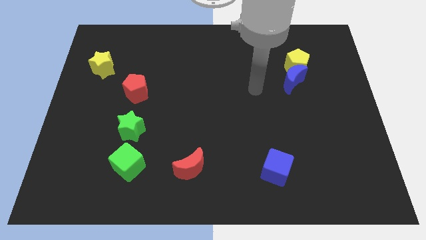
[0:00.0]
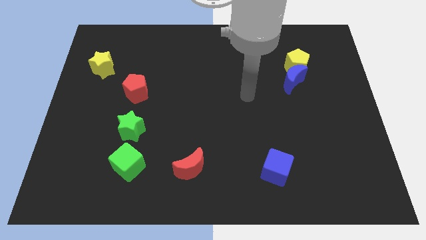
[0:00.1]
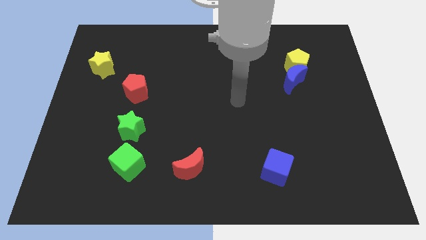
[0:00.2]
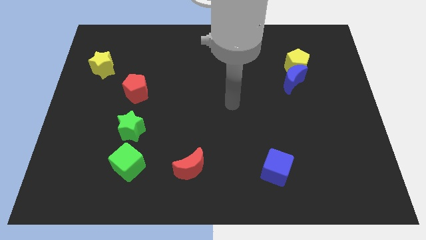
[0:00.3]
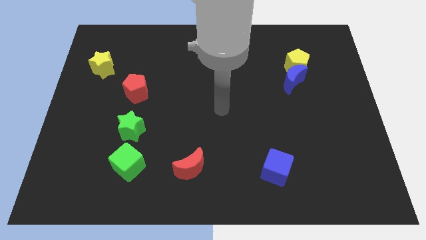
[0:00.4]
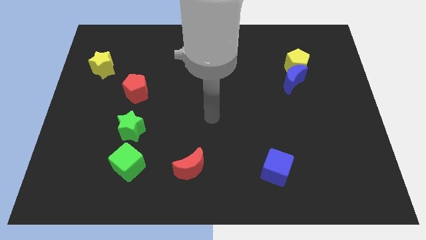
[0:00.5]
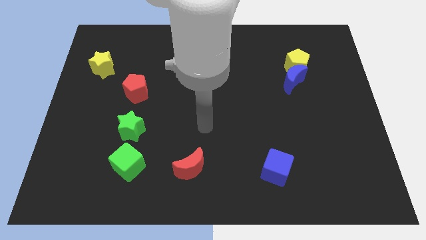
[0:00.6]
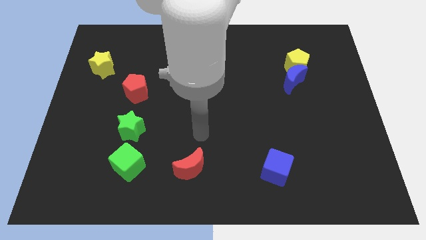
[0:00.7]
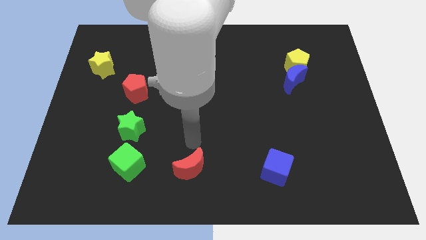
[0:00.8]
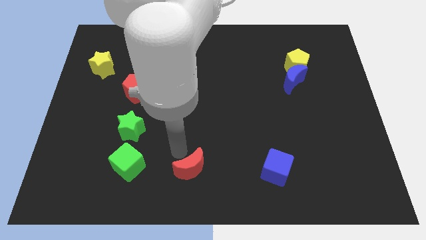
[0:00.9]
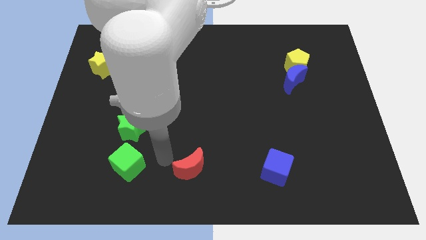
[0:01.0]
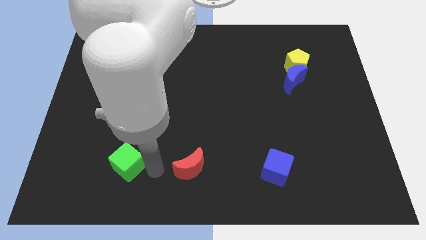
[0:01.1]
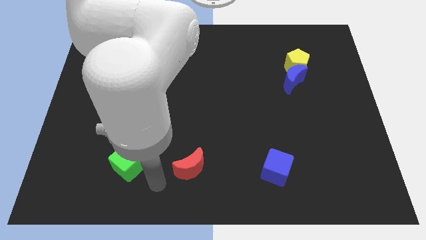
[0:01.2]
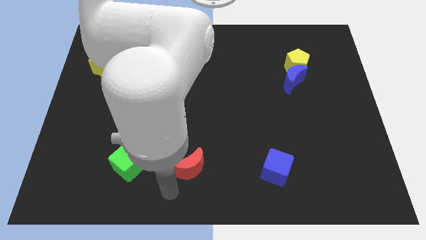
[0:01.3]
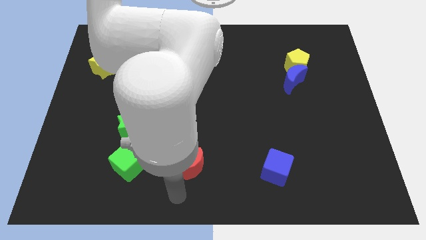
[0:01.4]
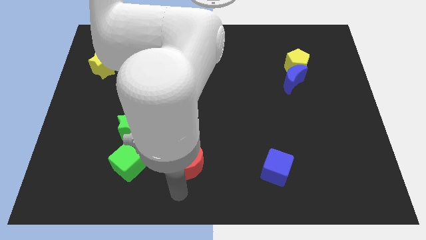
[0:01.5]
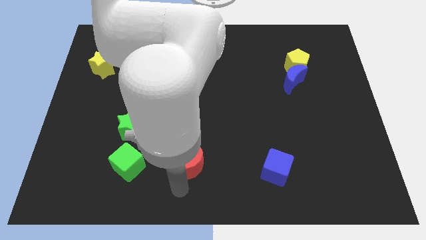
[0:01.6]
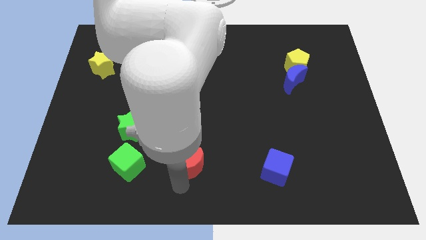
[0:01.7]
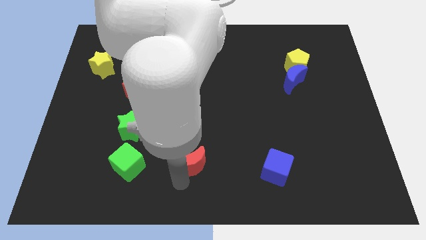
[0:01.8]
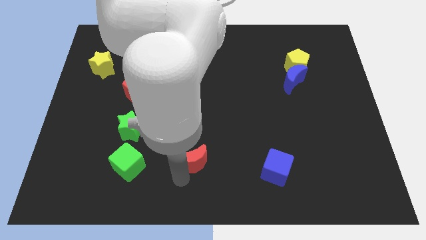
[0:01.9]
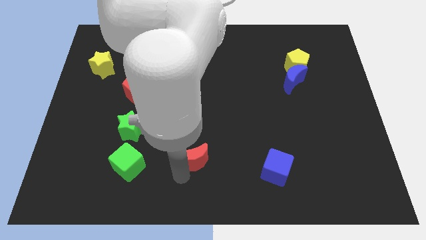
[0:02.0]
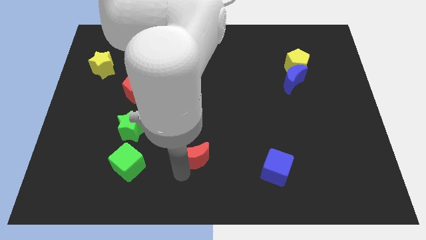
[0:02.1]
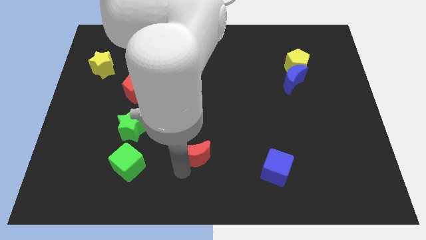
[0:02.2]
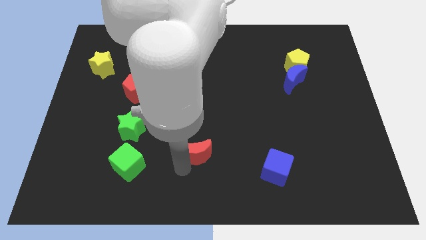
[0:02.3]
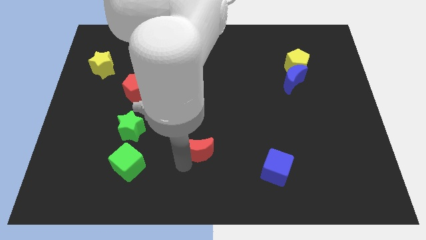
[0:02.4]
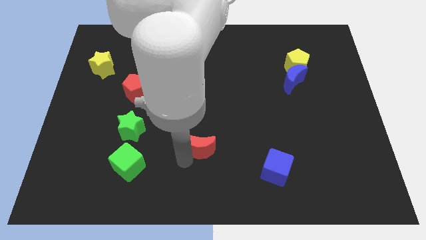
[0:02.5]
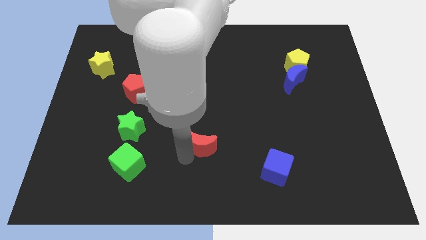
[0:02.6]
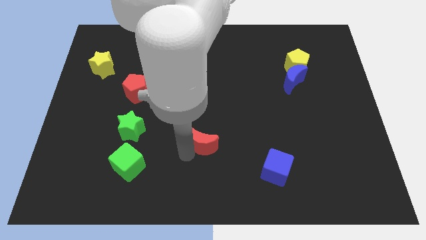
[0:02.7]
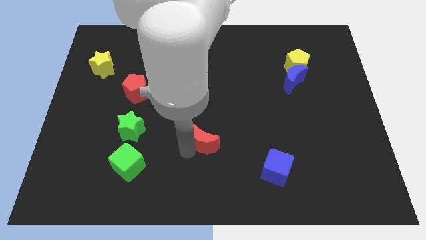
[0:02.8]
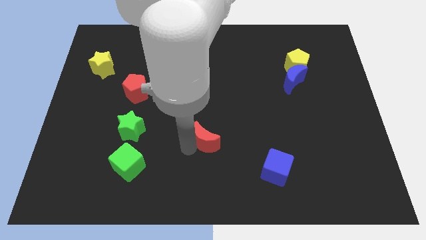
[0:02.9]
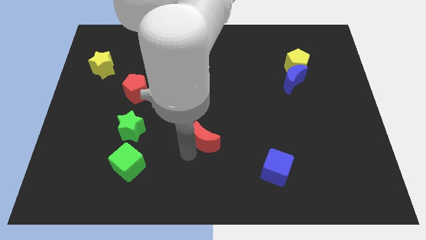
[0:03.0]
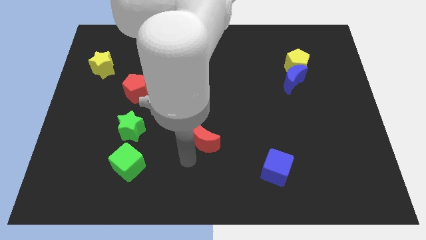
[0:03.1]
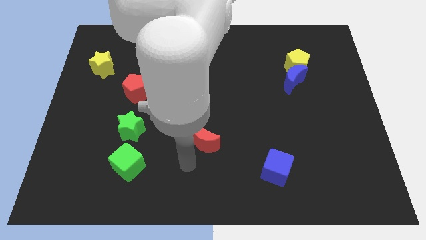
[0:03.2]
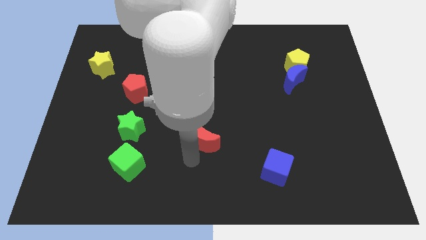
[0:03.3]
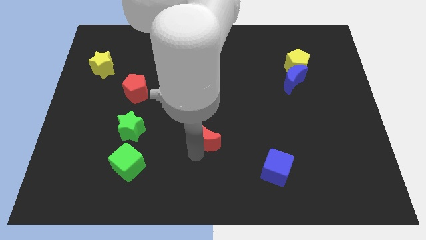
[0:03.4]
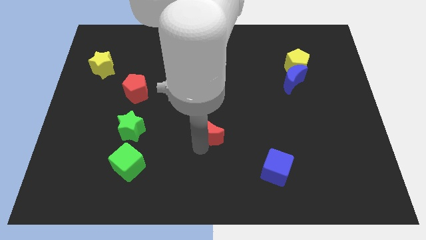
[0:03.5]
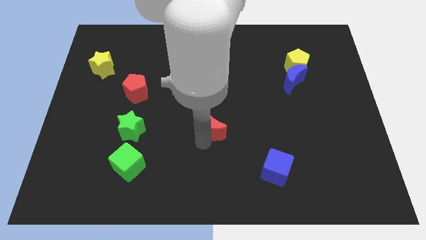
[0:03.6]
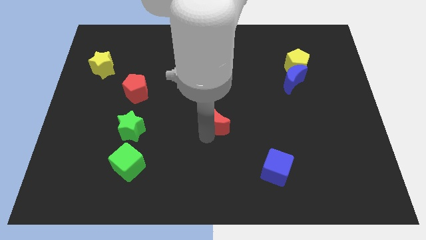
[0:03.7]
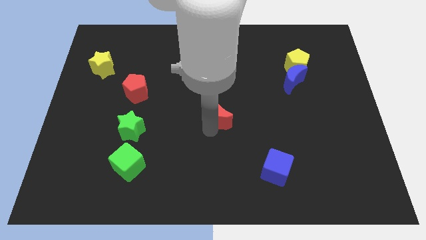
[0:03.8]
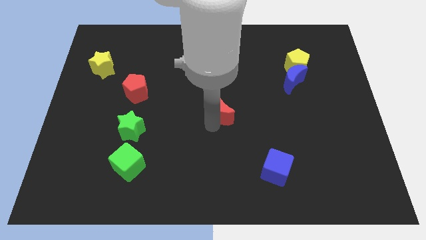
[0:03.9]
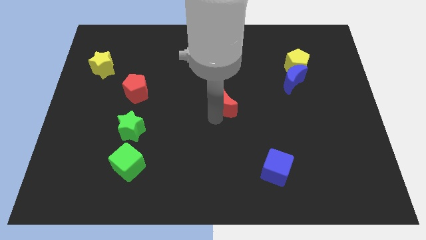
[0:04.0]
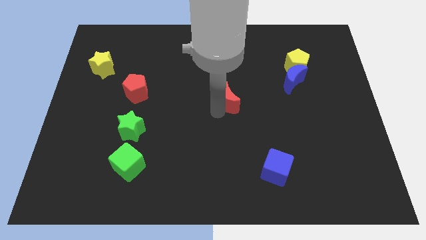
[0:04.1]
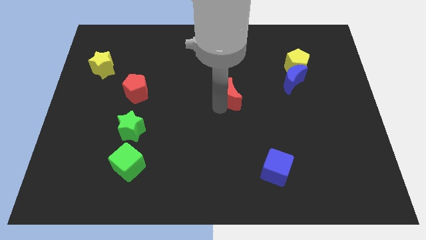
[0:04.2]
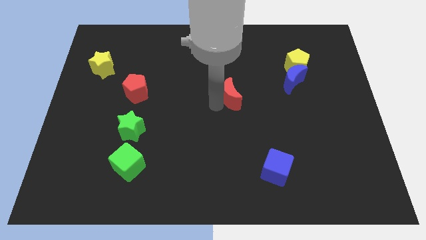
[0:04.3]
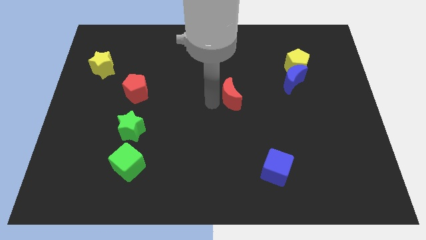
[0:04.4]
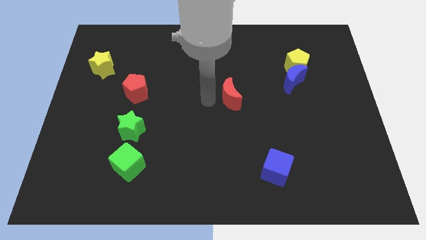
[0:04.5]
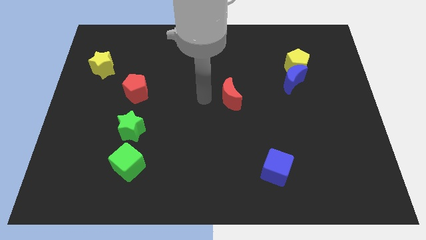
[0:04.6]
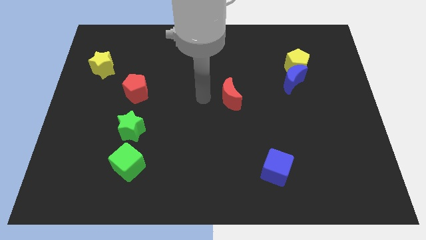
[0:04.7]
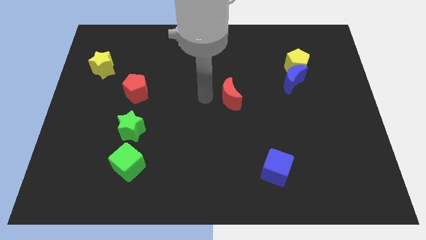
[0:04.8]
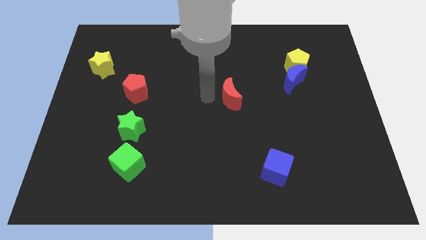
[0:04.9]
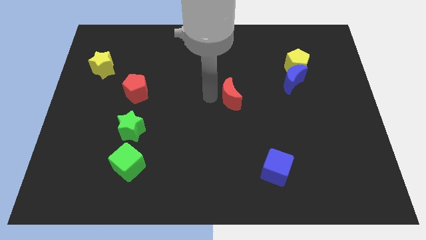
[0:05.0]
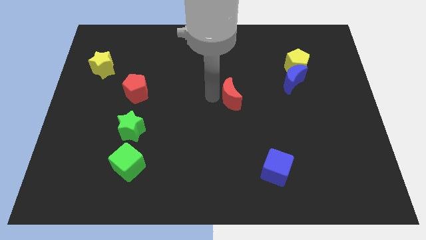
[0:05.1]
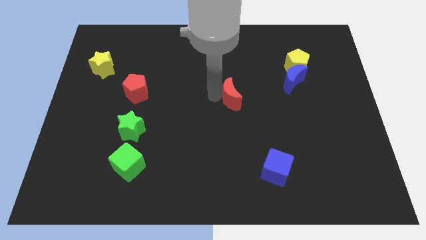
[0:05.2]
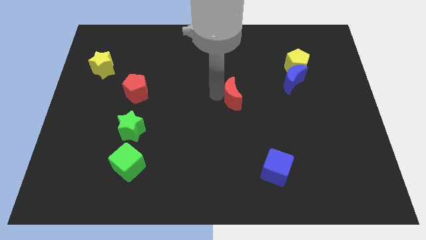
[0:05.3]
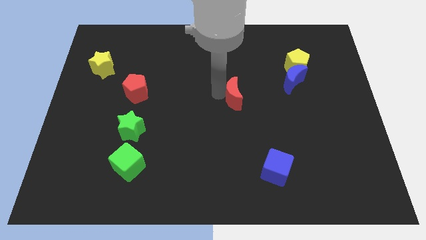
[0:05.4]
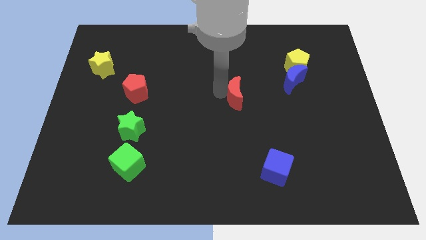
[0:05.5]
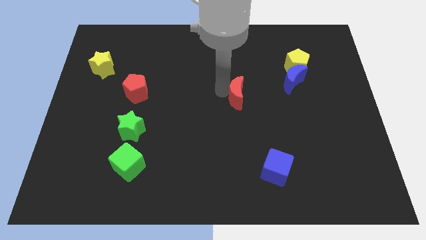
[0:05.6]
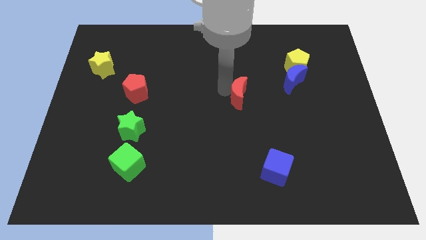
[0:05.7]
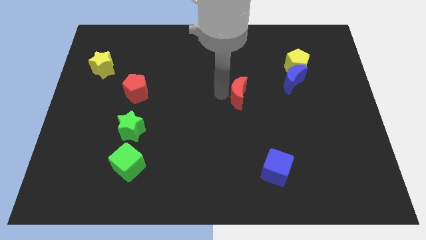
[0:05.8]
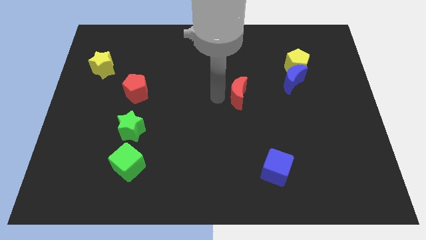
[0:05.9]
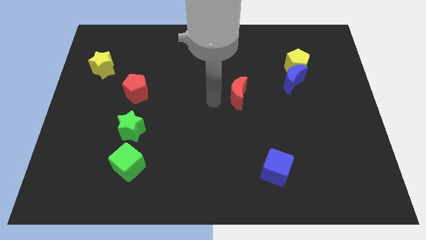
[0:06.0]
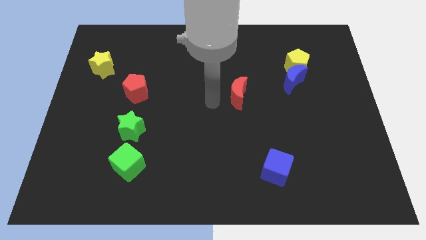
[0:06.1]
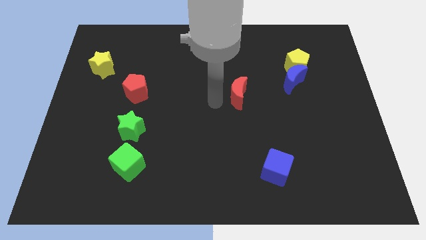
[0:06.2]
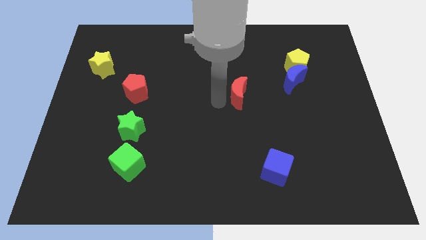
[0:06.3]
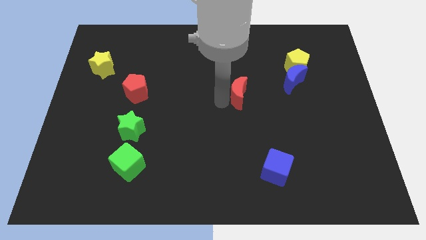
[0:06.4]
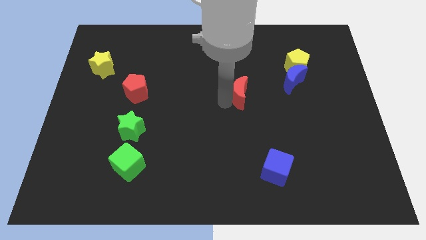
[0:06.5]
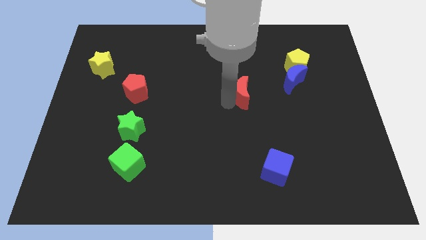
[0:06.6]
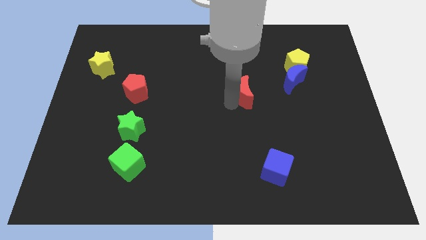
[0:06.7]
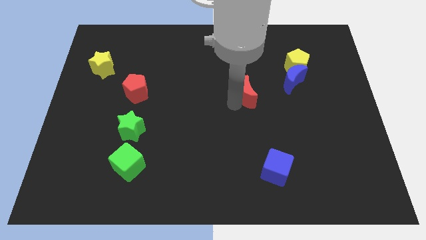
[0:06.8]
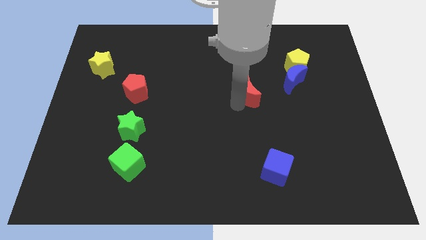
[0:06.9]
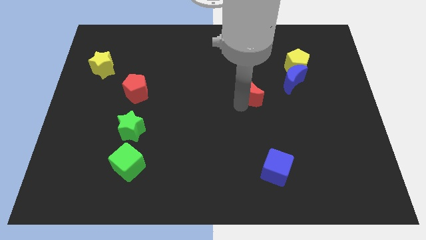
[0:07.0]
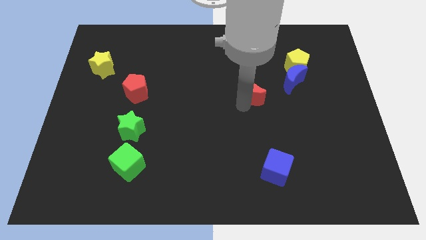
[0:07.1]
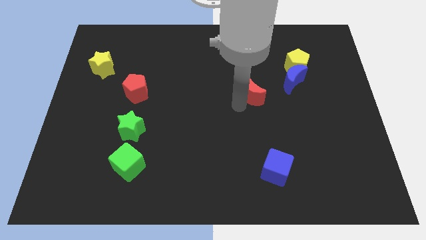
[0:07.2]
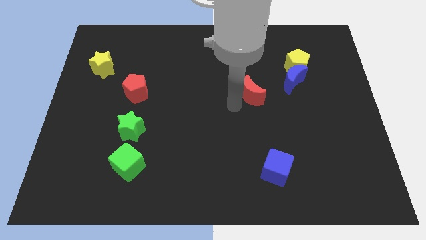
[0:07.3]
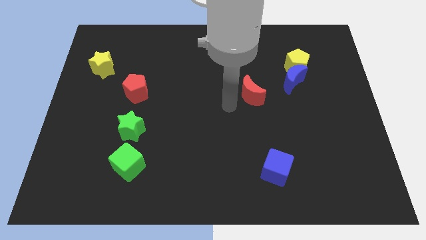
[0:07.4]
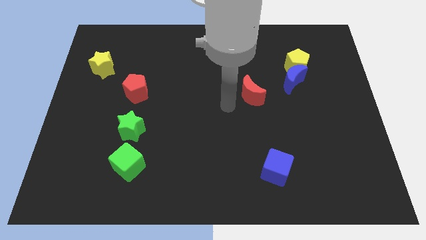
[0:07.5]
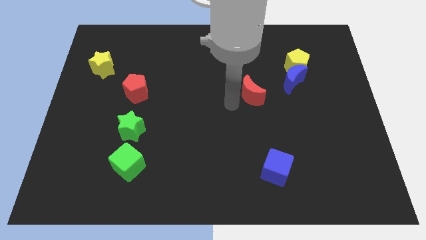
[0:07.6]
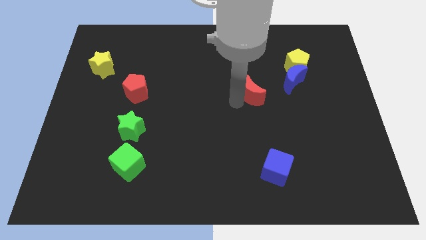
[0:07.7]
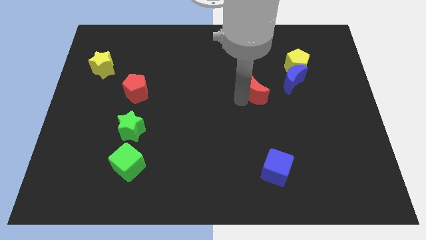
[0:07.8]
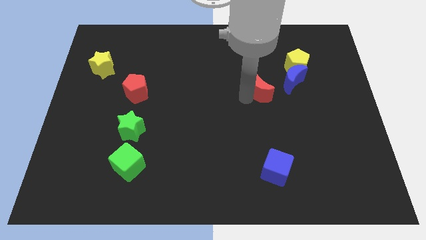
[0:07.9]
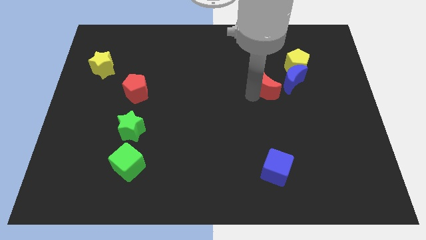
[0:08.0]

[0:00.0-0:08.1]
move the red moon to the bottom left of the yellow pentagon
